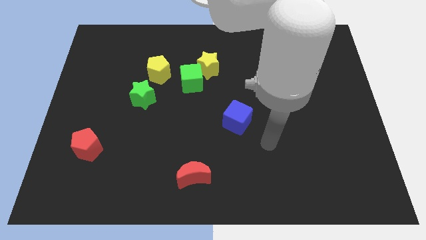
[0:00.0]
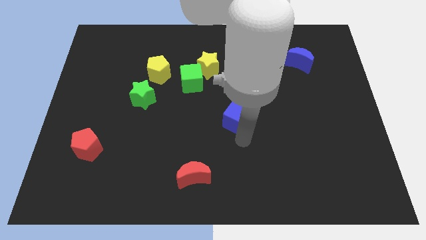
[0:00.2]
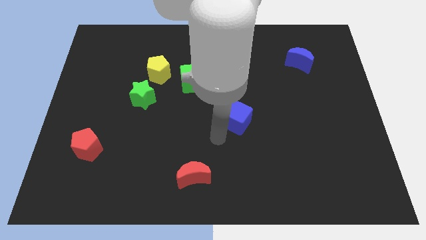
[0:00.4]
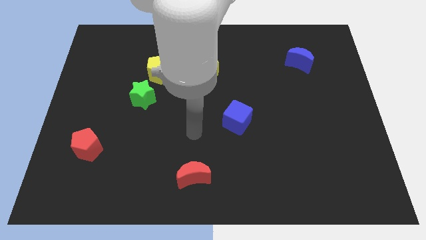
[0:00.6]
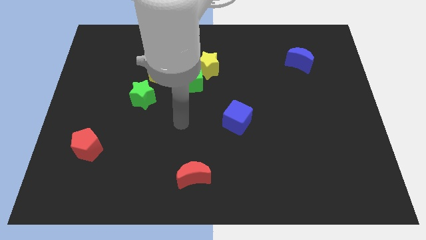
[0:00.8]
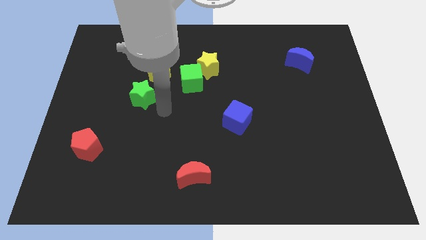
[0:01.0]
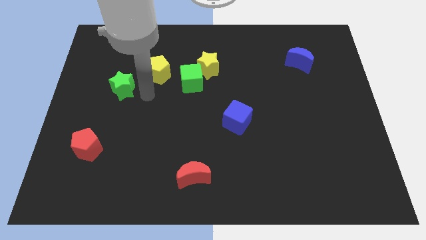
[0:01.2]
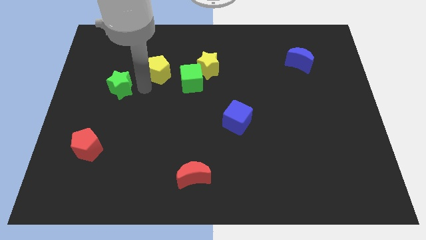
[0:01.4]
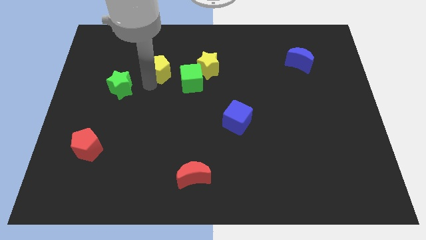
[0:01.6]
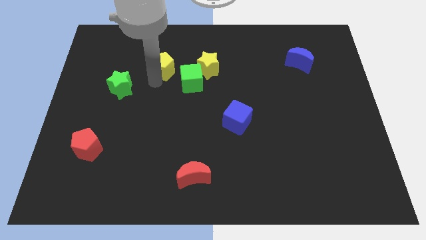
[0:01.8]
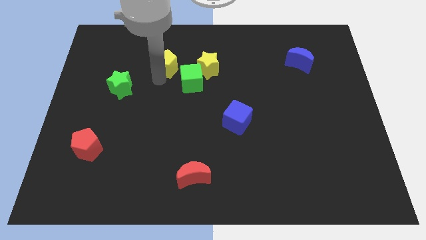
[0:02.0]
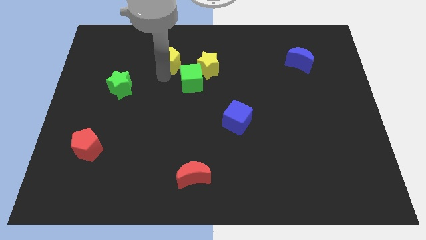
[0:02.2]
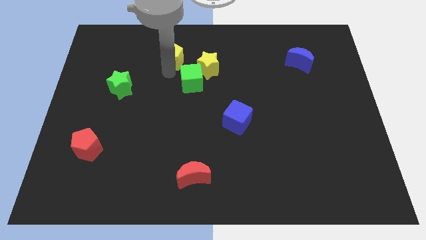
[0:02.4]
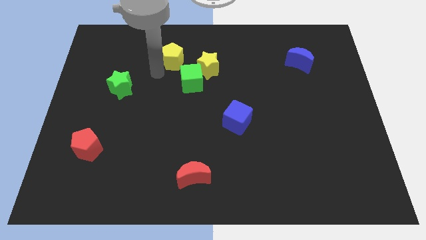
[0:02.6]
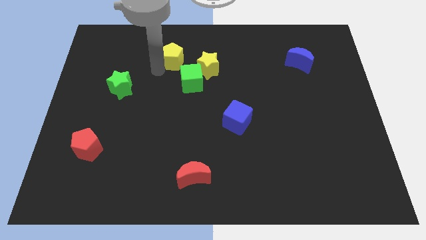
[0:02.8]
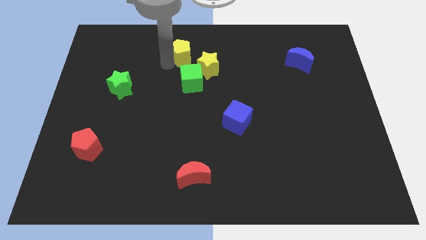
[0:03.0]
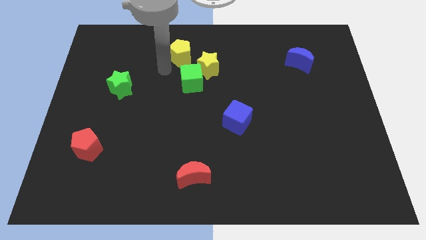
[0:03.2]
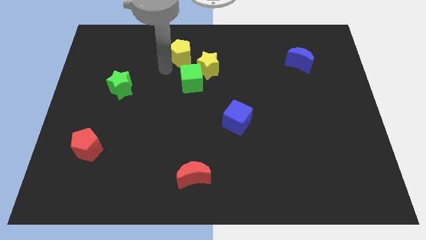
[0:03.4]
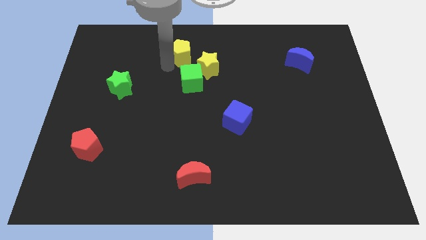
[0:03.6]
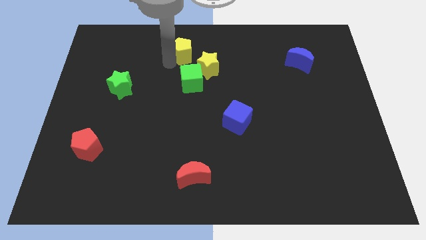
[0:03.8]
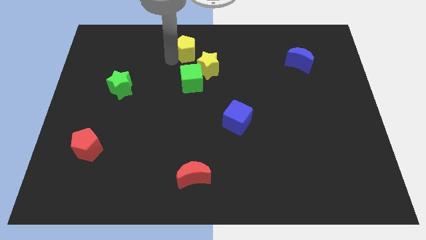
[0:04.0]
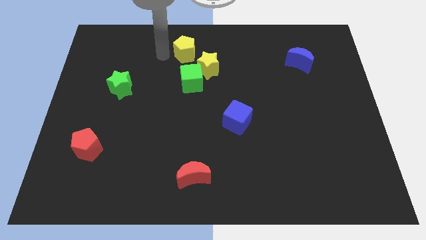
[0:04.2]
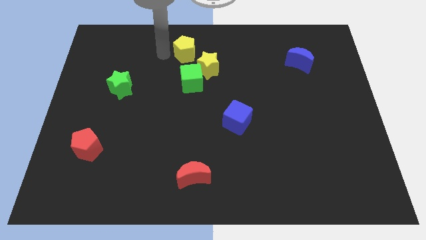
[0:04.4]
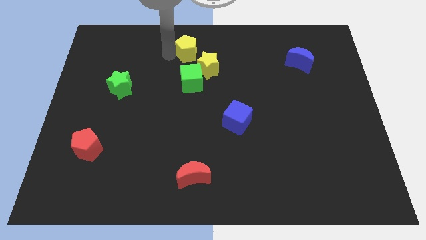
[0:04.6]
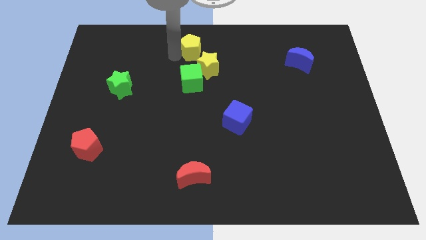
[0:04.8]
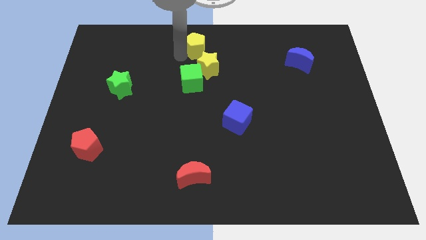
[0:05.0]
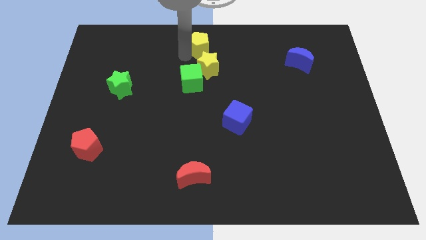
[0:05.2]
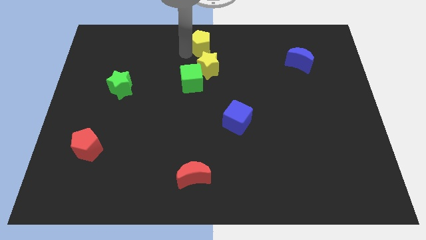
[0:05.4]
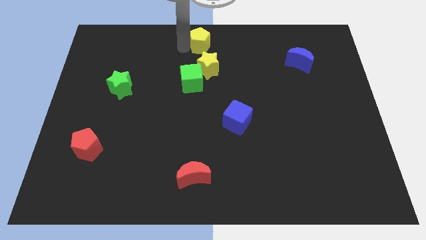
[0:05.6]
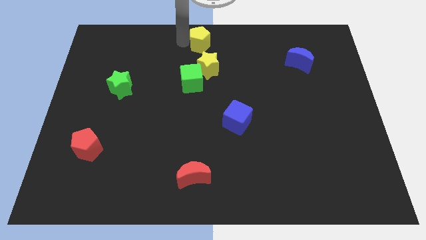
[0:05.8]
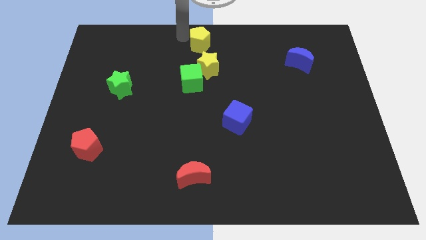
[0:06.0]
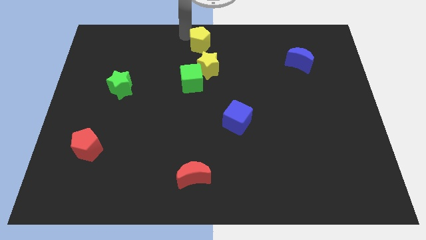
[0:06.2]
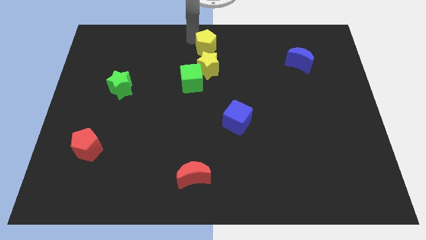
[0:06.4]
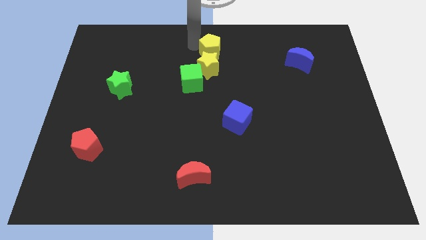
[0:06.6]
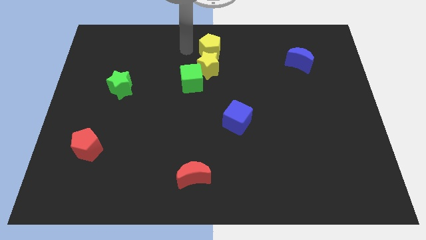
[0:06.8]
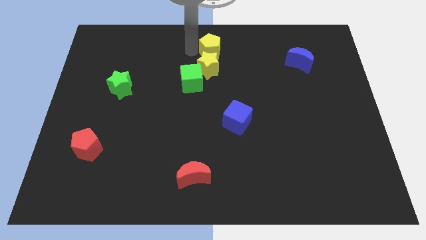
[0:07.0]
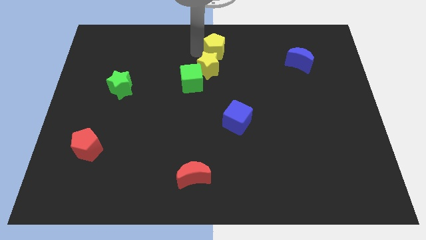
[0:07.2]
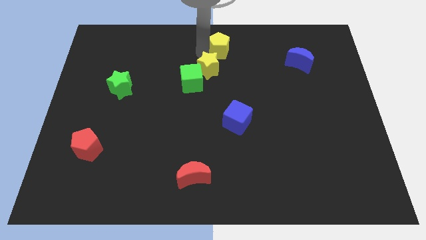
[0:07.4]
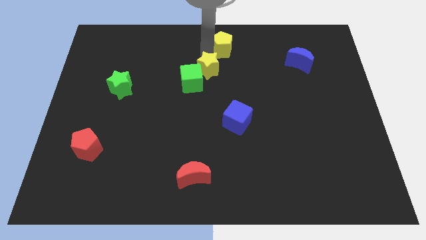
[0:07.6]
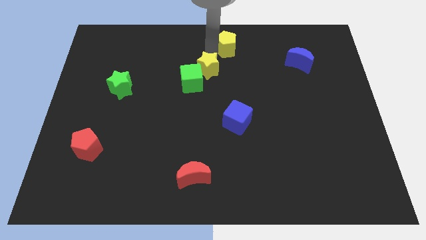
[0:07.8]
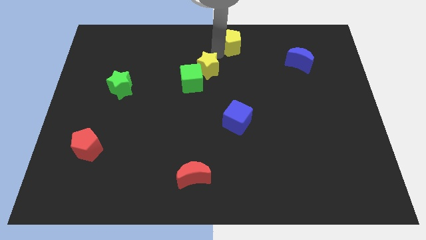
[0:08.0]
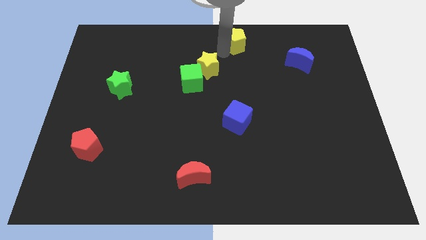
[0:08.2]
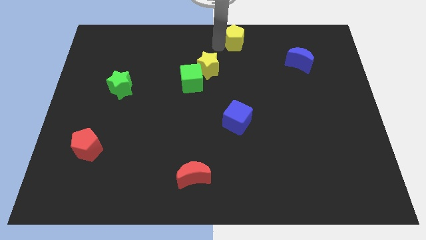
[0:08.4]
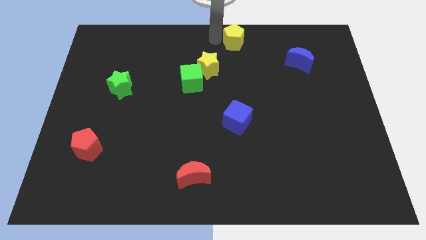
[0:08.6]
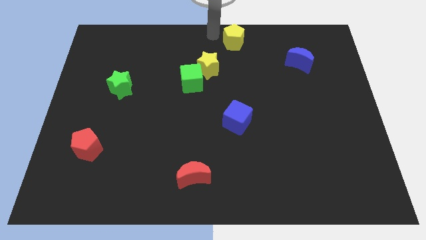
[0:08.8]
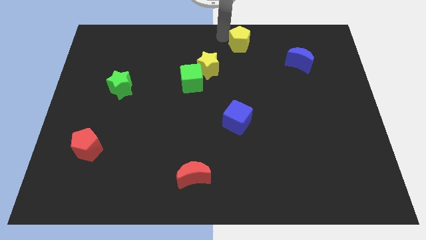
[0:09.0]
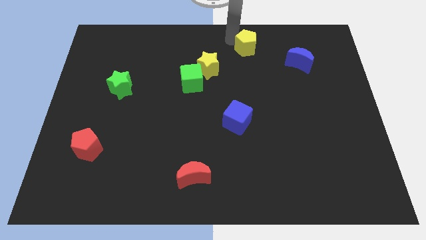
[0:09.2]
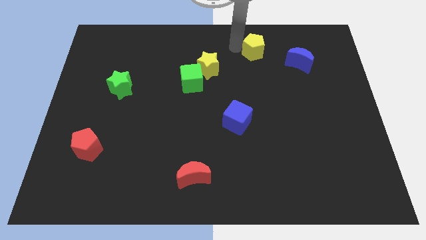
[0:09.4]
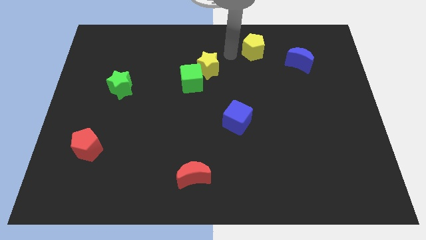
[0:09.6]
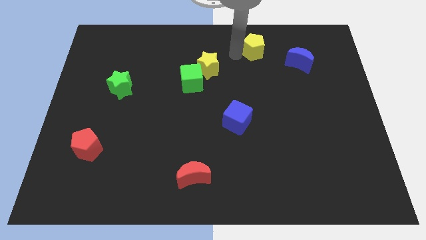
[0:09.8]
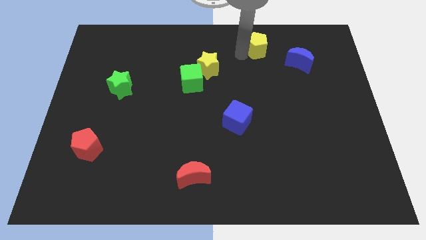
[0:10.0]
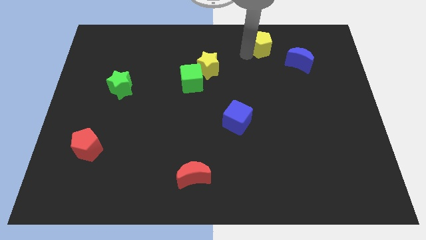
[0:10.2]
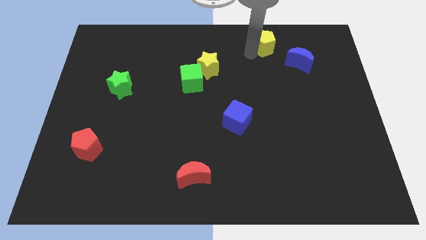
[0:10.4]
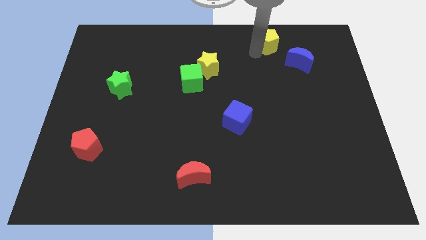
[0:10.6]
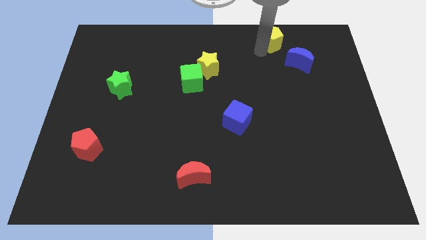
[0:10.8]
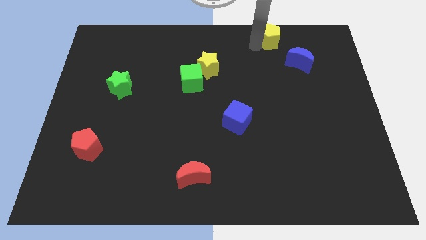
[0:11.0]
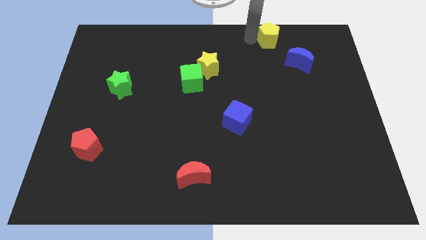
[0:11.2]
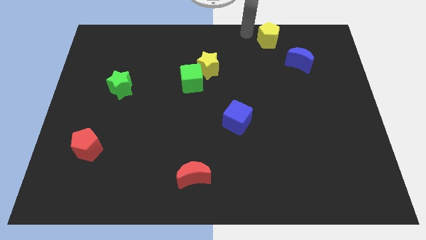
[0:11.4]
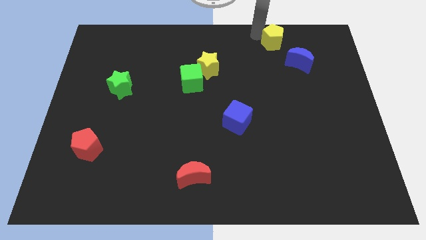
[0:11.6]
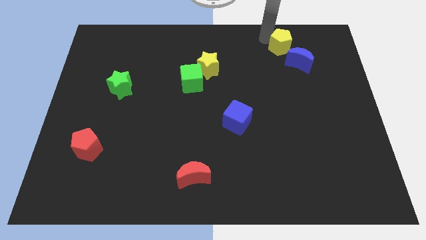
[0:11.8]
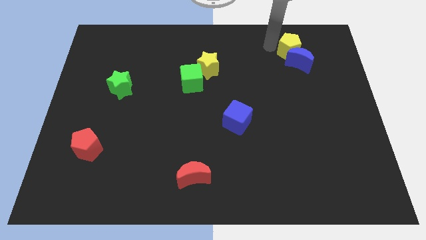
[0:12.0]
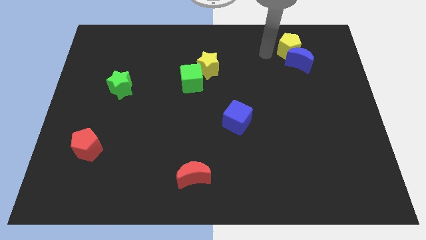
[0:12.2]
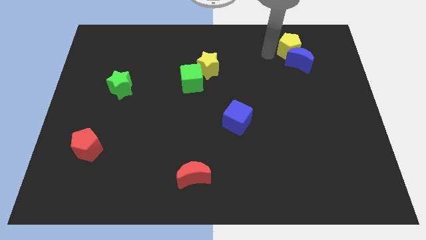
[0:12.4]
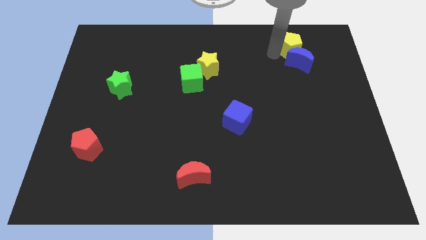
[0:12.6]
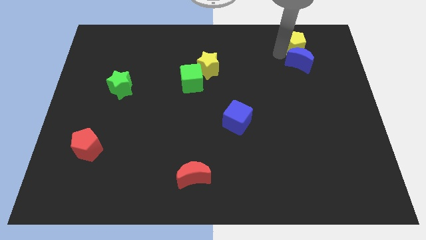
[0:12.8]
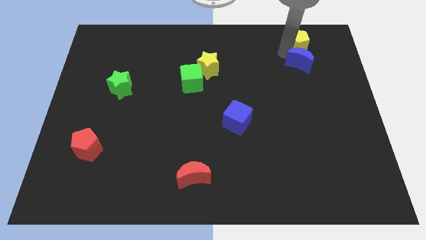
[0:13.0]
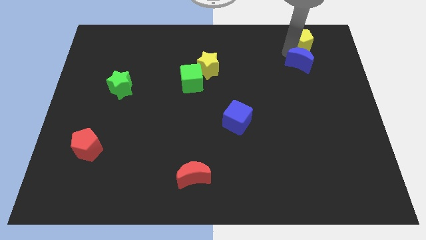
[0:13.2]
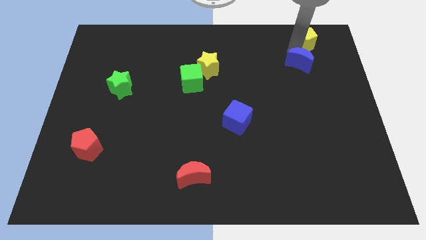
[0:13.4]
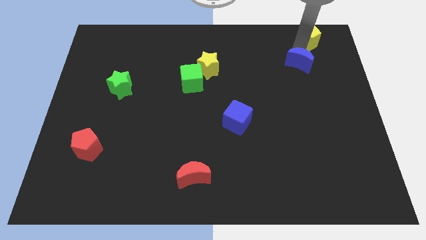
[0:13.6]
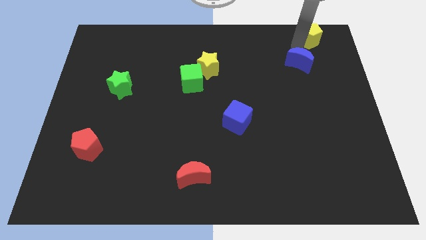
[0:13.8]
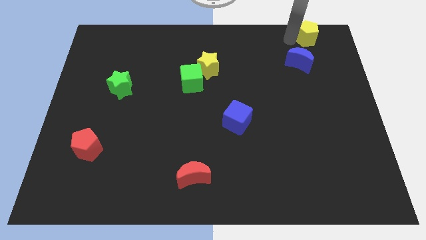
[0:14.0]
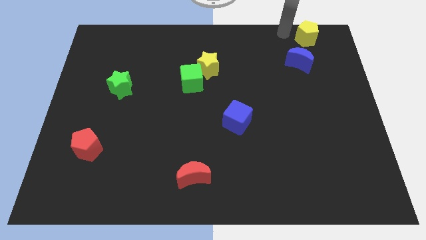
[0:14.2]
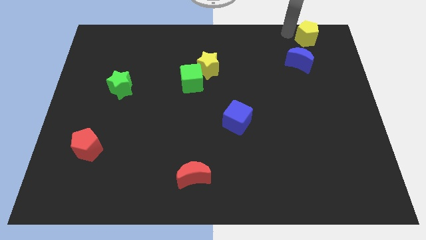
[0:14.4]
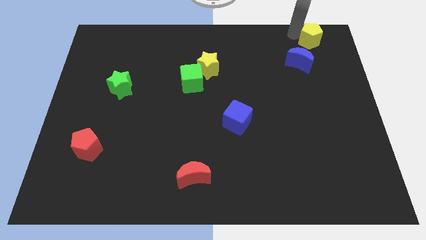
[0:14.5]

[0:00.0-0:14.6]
move the yellow pentagon to the top right corner
